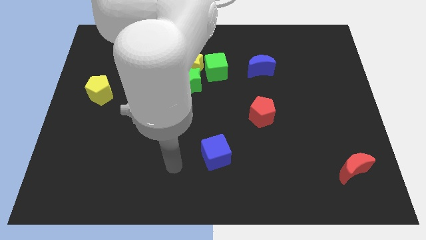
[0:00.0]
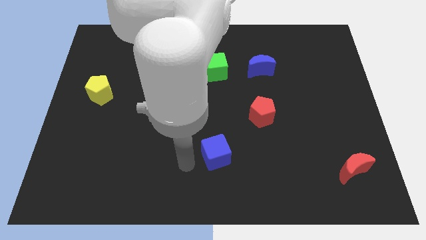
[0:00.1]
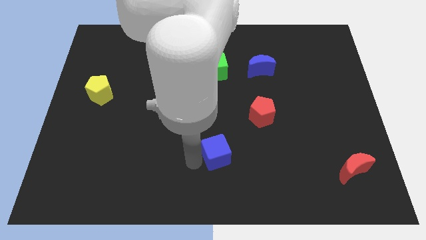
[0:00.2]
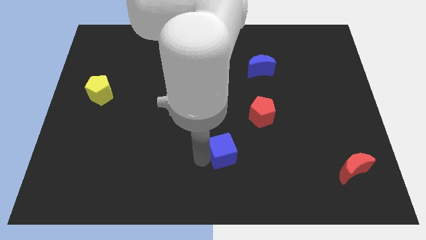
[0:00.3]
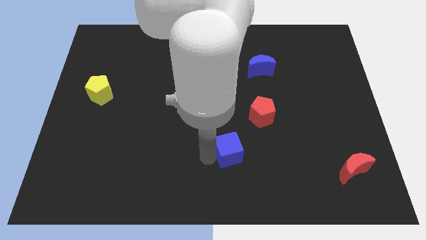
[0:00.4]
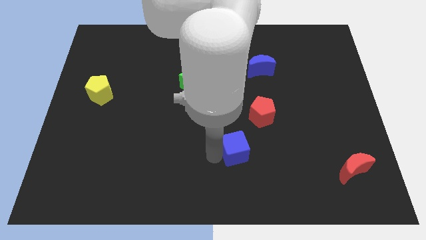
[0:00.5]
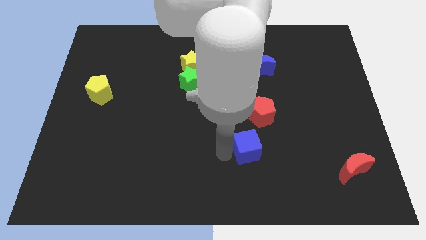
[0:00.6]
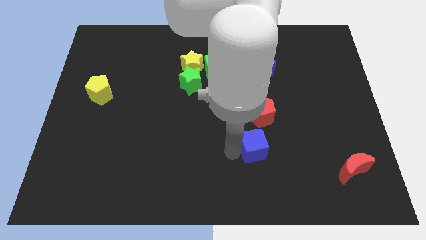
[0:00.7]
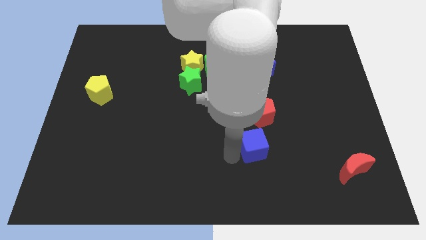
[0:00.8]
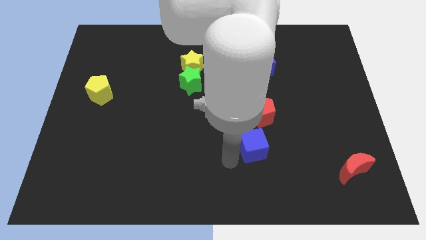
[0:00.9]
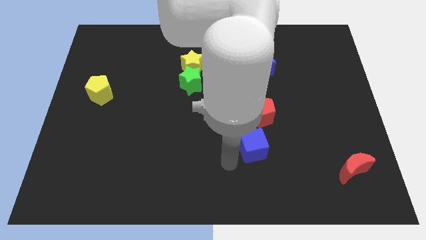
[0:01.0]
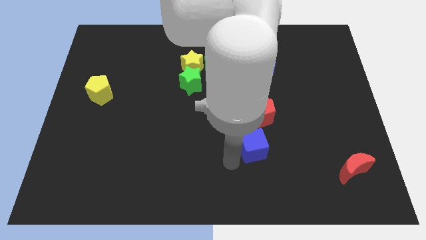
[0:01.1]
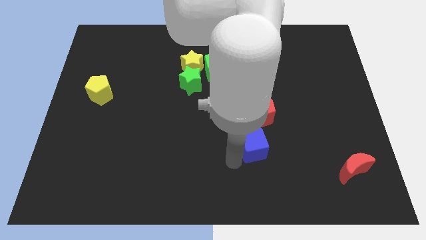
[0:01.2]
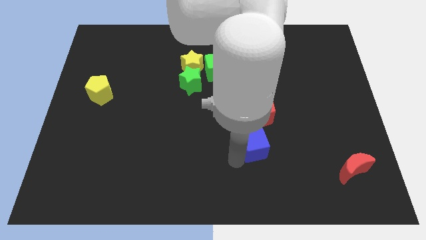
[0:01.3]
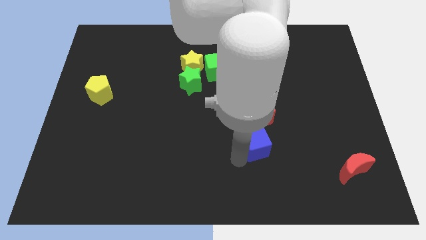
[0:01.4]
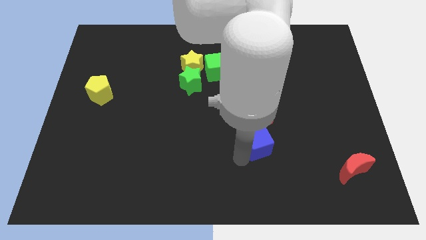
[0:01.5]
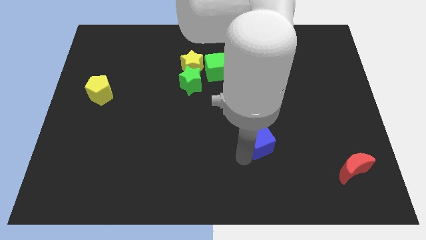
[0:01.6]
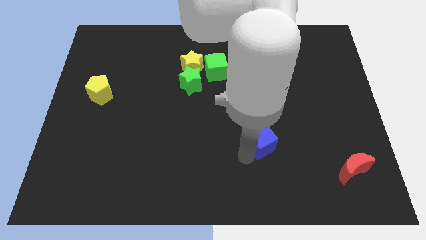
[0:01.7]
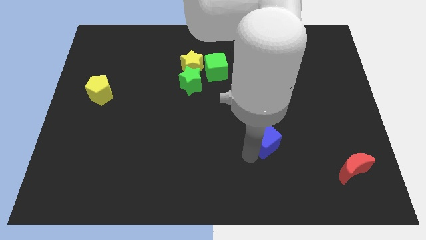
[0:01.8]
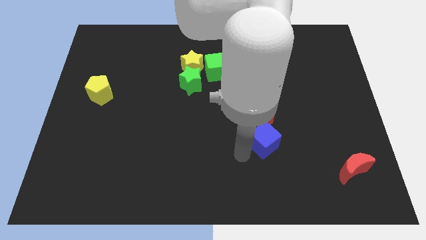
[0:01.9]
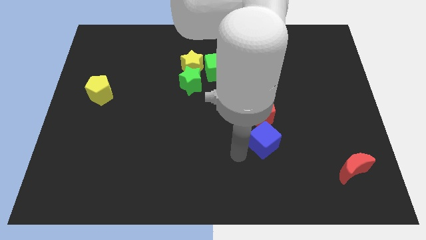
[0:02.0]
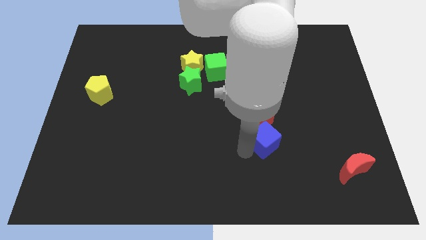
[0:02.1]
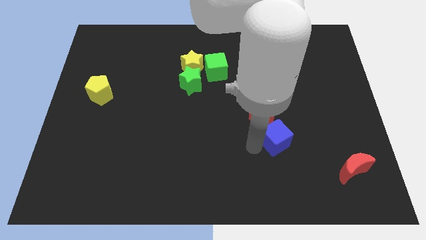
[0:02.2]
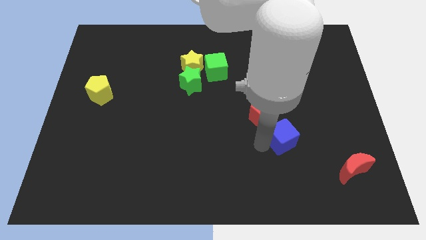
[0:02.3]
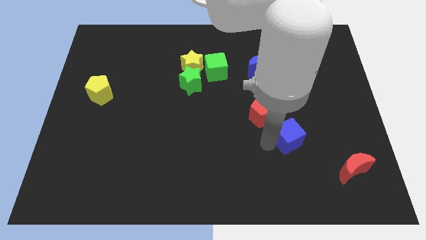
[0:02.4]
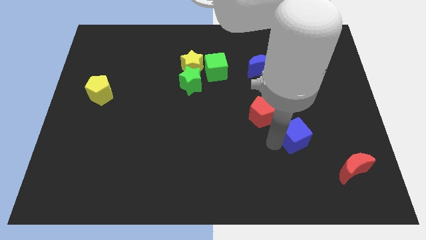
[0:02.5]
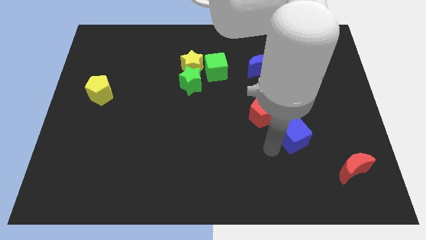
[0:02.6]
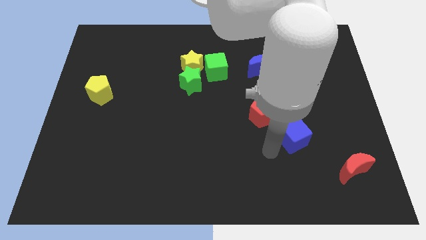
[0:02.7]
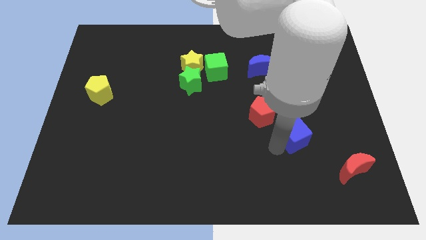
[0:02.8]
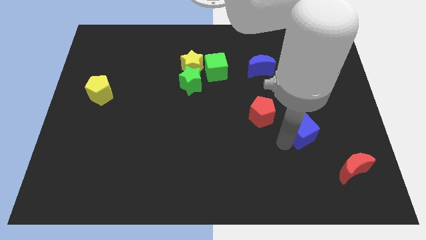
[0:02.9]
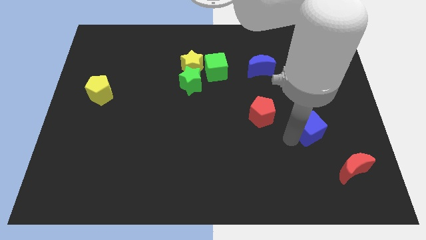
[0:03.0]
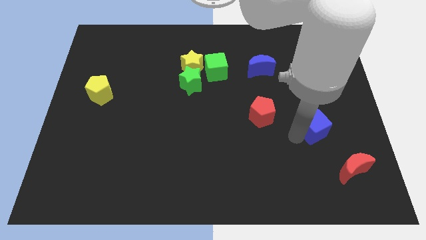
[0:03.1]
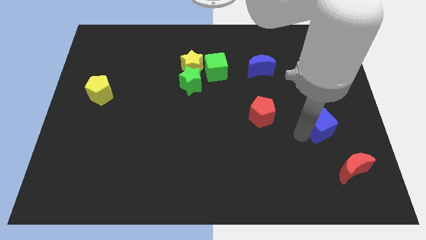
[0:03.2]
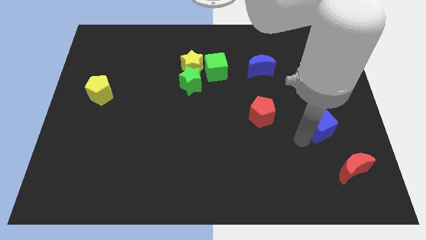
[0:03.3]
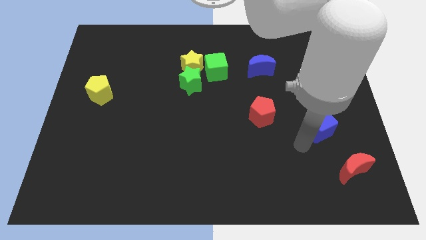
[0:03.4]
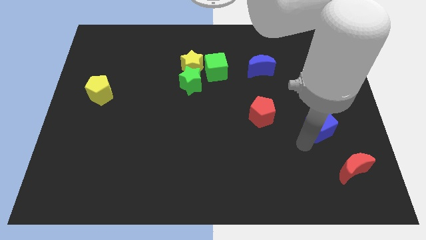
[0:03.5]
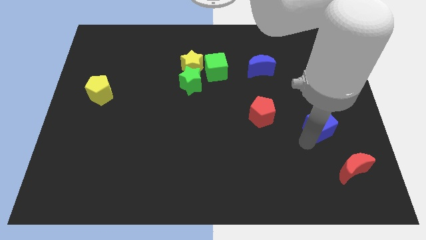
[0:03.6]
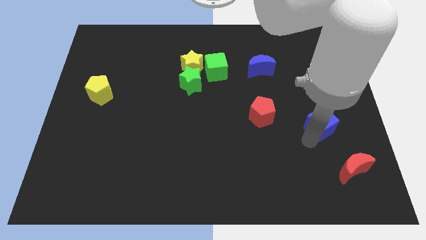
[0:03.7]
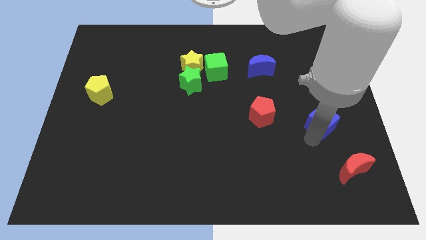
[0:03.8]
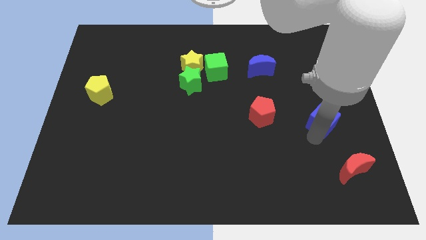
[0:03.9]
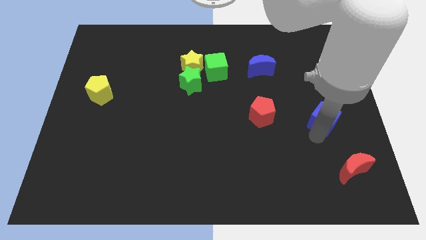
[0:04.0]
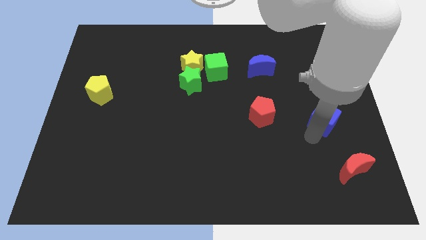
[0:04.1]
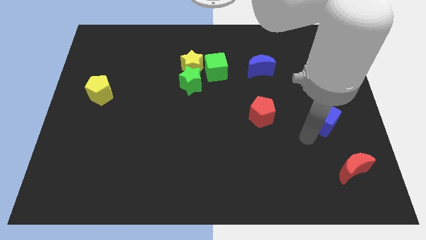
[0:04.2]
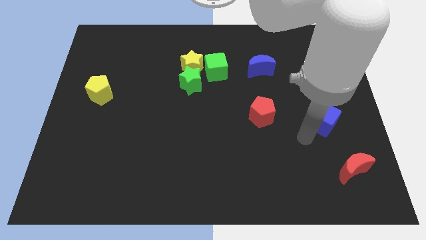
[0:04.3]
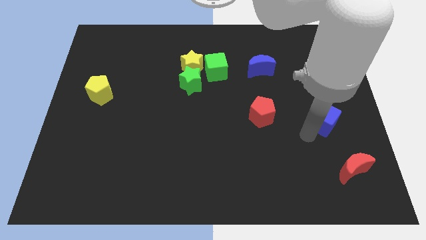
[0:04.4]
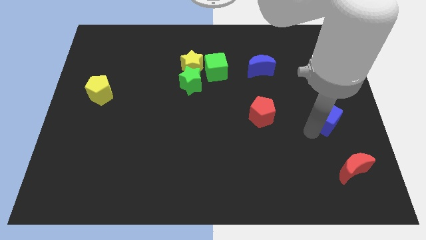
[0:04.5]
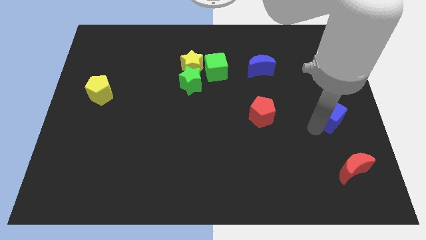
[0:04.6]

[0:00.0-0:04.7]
put the blue cube to the center right

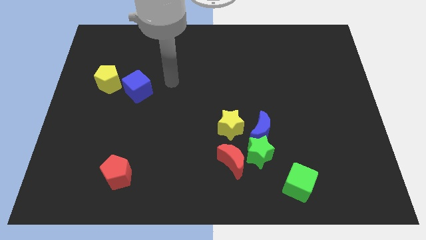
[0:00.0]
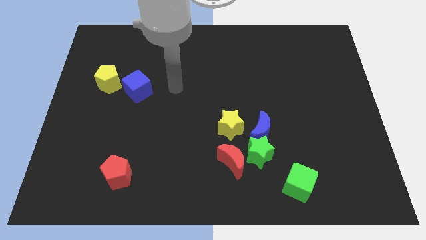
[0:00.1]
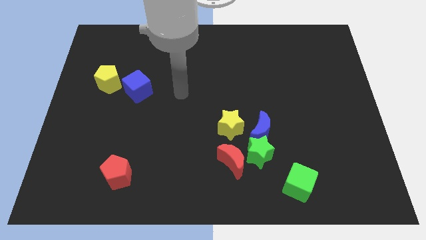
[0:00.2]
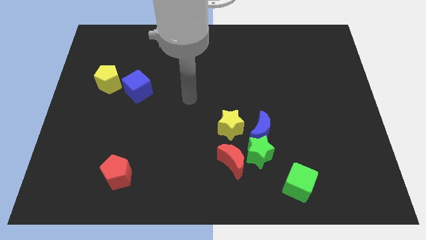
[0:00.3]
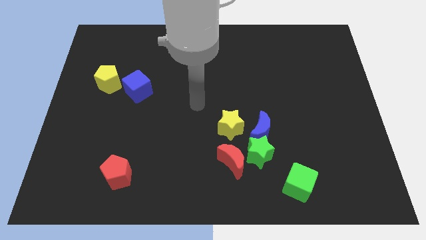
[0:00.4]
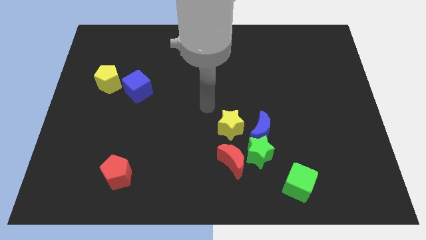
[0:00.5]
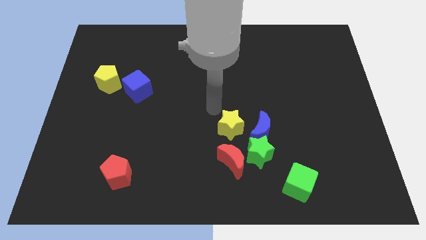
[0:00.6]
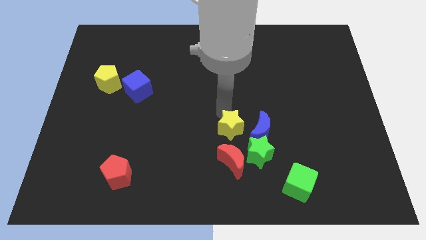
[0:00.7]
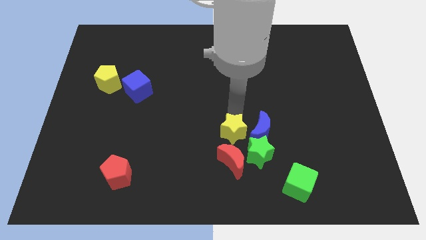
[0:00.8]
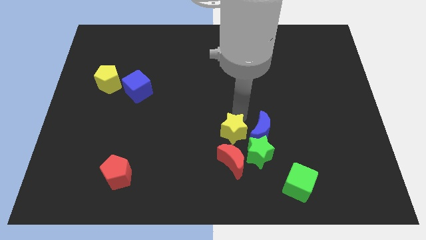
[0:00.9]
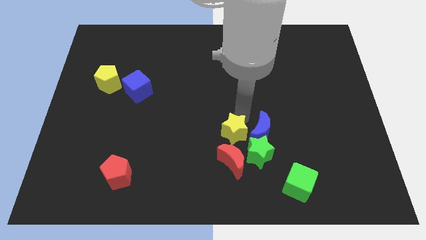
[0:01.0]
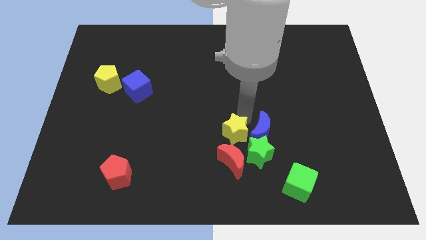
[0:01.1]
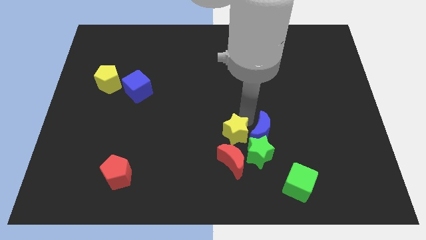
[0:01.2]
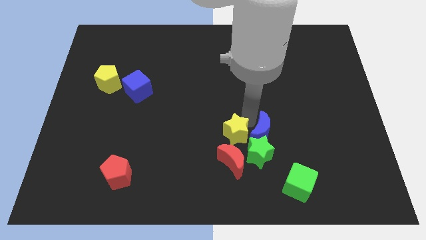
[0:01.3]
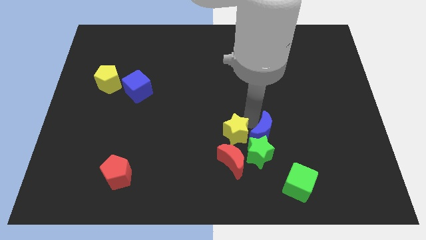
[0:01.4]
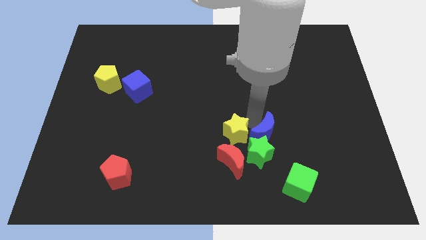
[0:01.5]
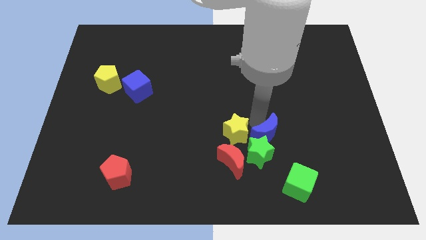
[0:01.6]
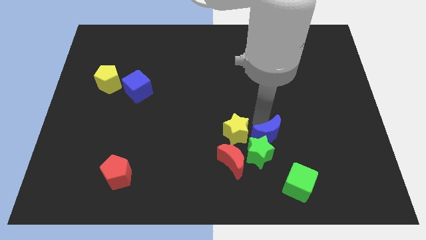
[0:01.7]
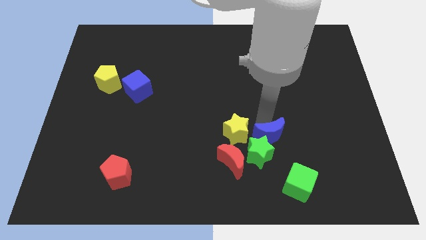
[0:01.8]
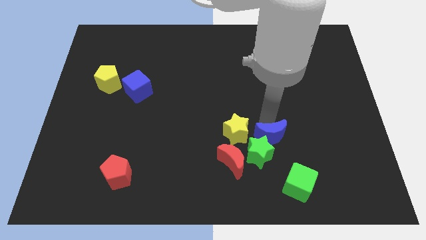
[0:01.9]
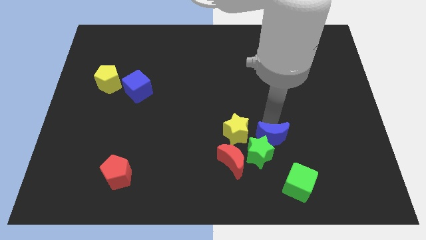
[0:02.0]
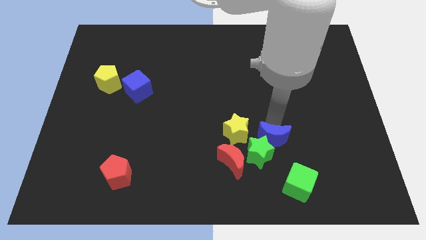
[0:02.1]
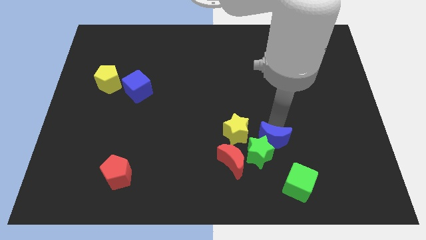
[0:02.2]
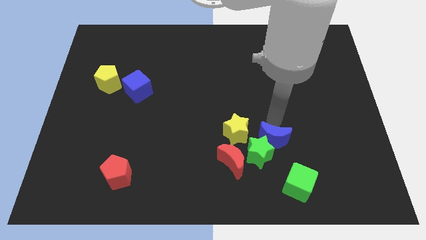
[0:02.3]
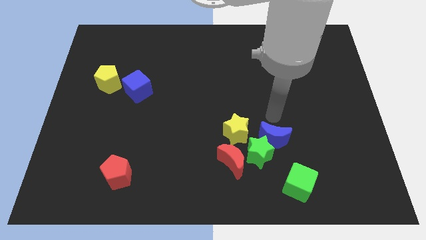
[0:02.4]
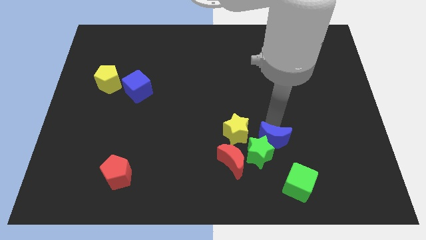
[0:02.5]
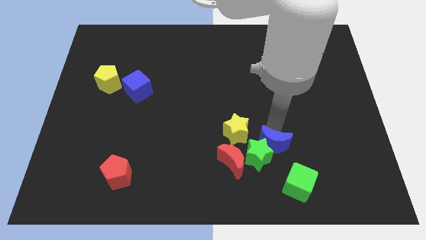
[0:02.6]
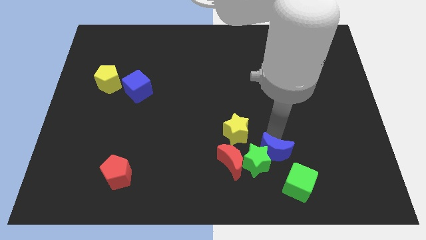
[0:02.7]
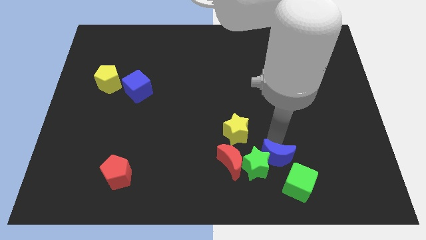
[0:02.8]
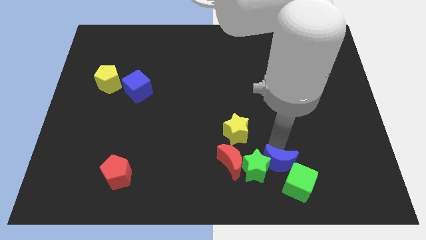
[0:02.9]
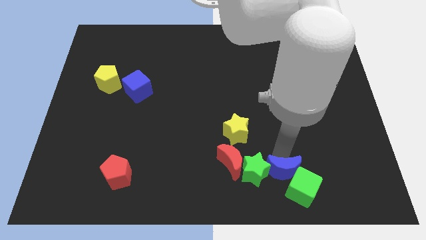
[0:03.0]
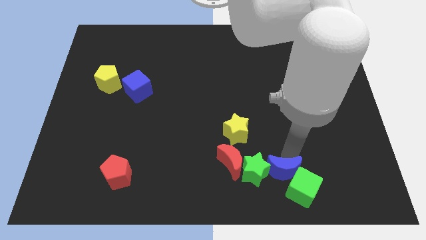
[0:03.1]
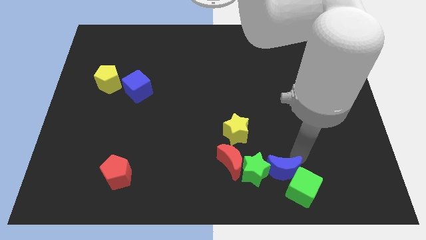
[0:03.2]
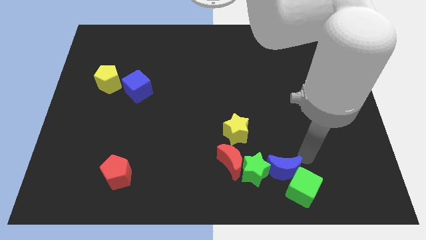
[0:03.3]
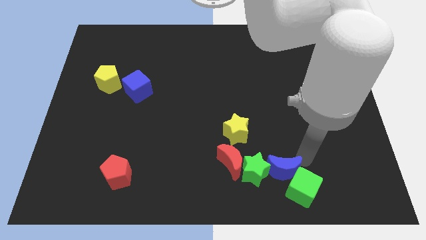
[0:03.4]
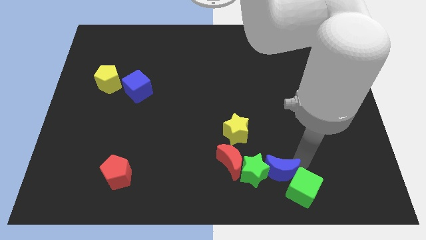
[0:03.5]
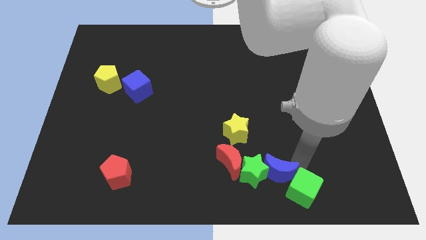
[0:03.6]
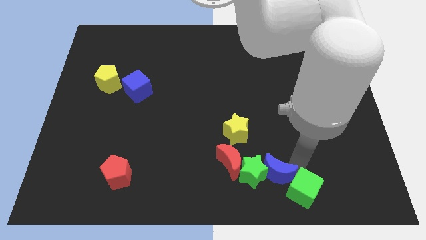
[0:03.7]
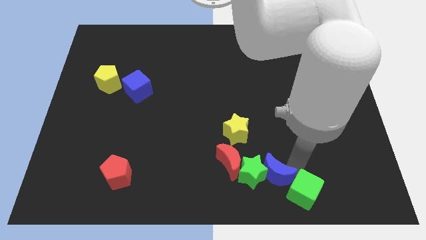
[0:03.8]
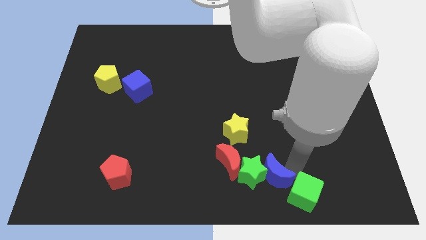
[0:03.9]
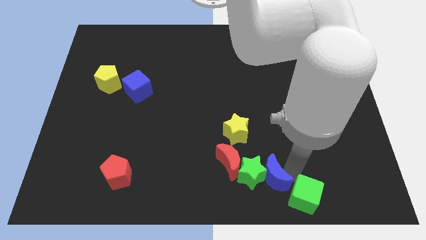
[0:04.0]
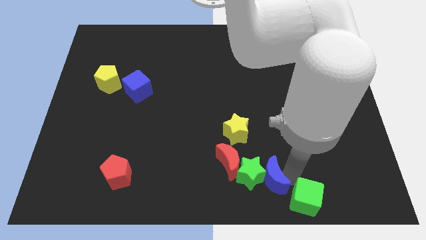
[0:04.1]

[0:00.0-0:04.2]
move the blue moon to the bottom
